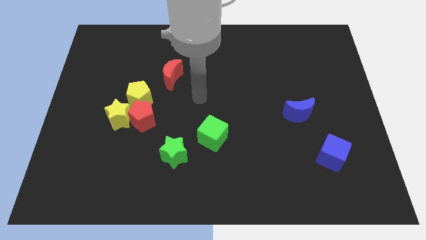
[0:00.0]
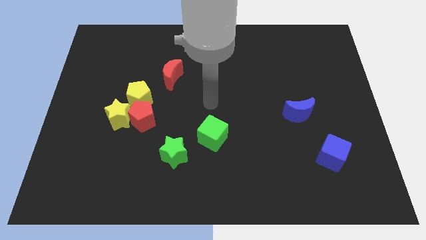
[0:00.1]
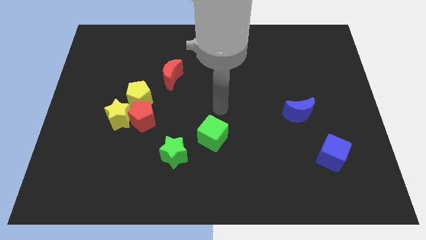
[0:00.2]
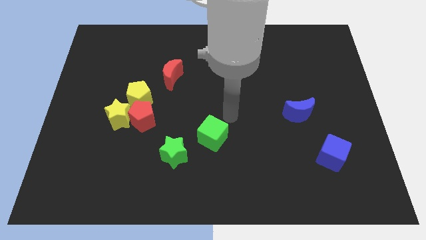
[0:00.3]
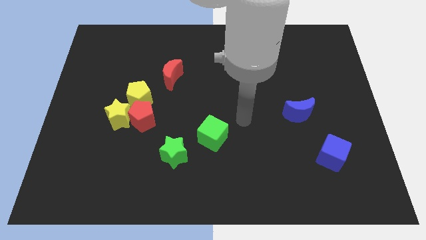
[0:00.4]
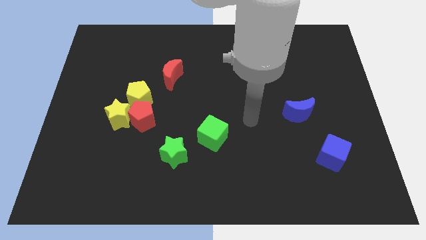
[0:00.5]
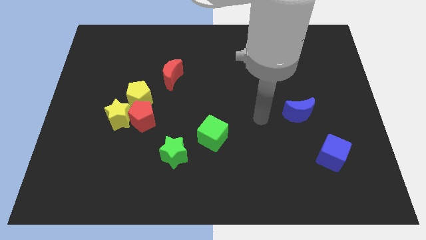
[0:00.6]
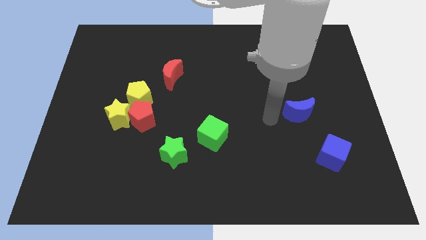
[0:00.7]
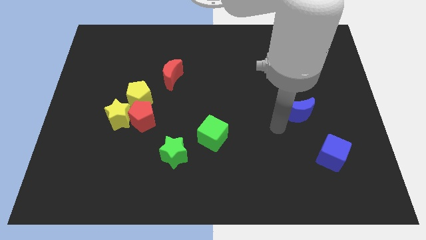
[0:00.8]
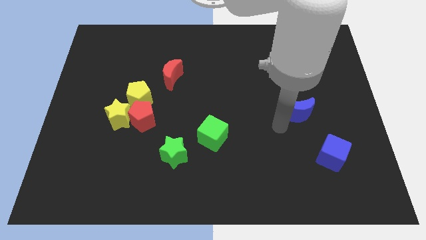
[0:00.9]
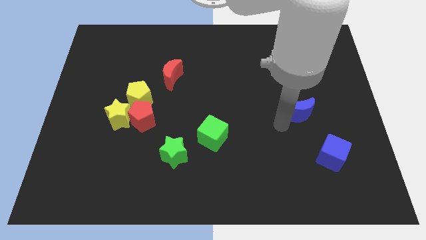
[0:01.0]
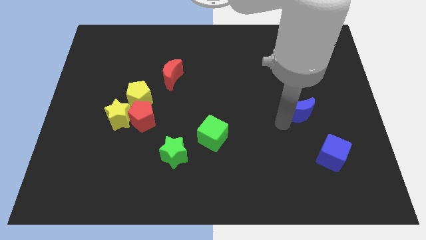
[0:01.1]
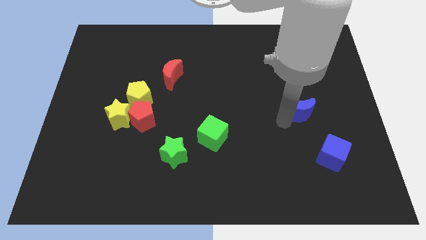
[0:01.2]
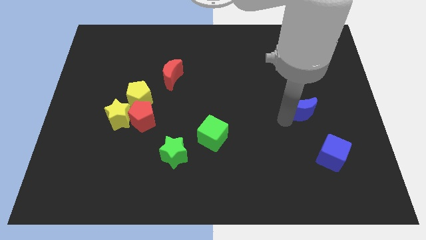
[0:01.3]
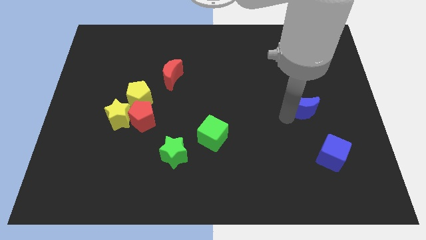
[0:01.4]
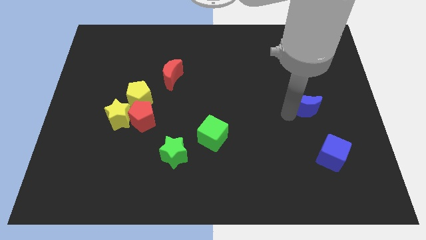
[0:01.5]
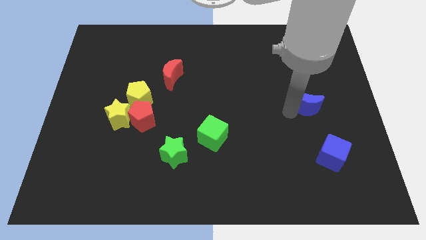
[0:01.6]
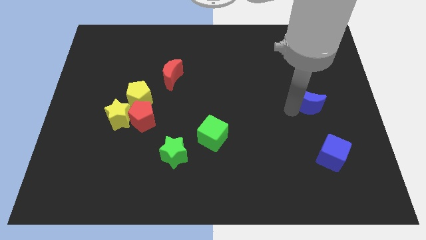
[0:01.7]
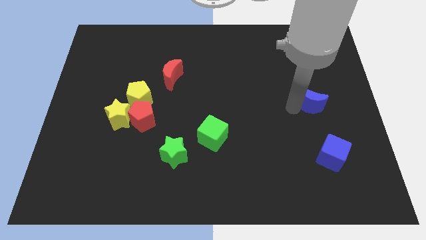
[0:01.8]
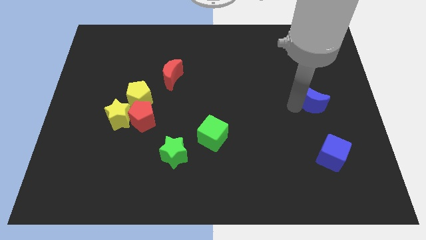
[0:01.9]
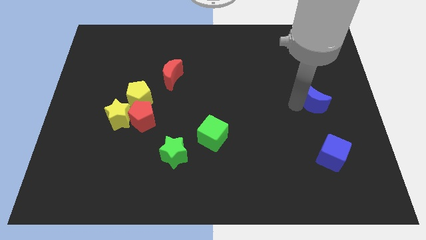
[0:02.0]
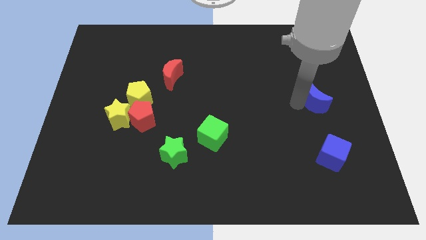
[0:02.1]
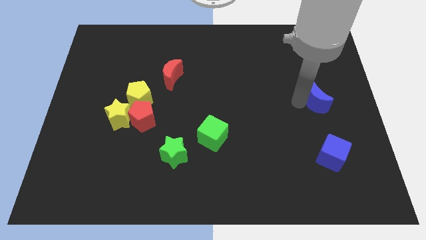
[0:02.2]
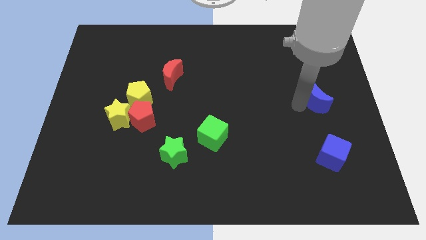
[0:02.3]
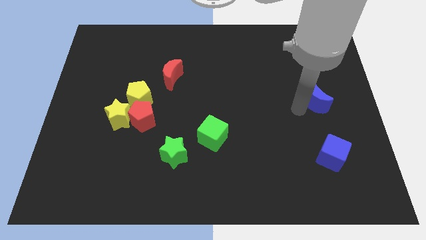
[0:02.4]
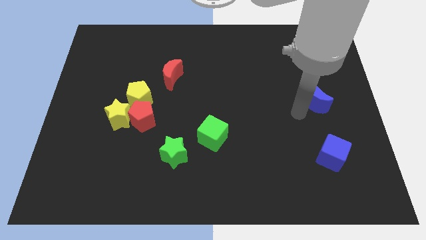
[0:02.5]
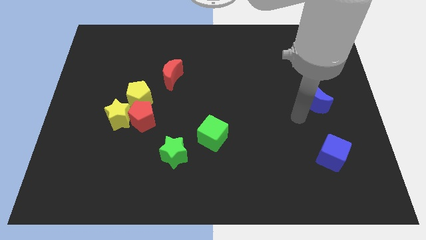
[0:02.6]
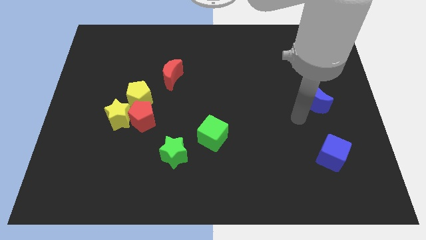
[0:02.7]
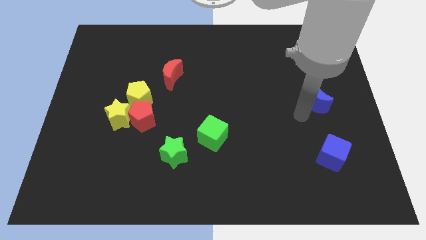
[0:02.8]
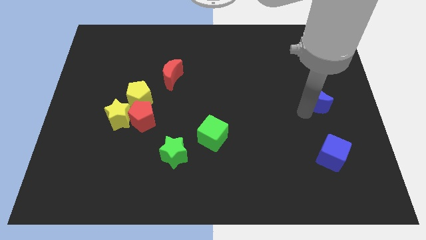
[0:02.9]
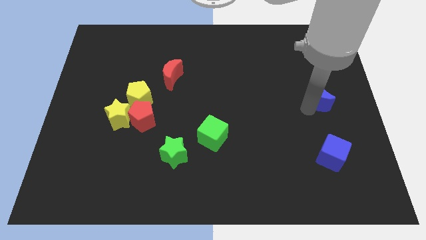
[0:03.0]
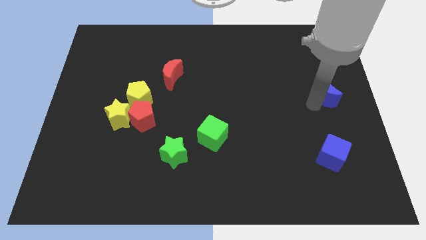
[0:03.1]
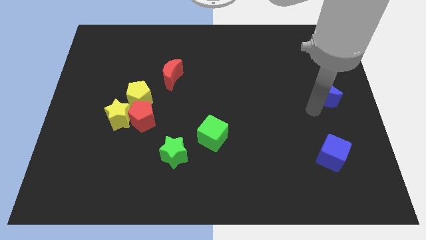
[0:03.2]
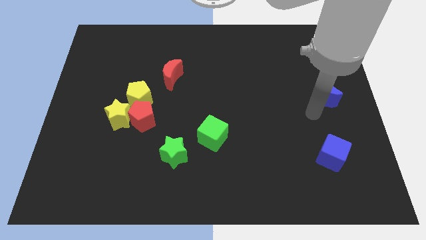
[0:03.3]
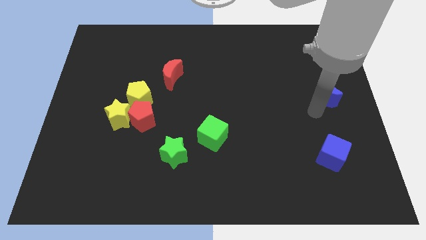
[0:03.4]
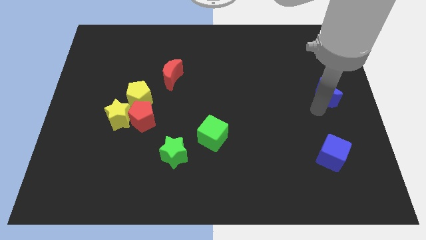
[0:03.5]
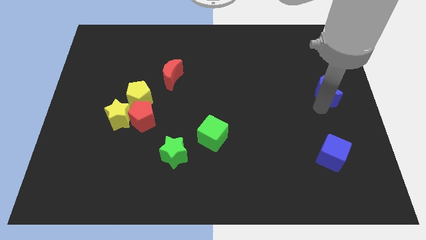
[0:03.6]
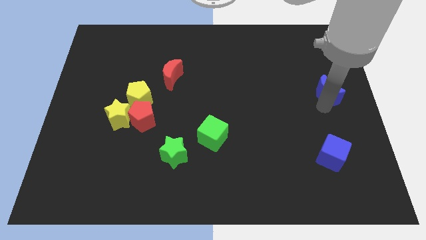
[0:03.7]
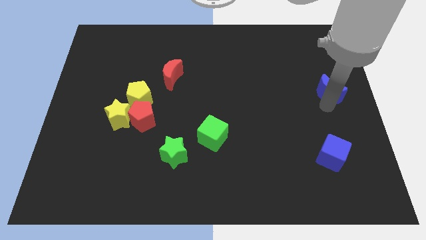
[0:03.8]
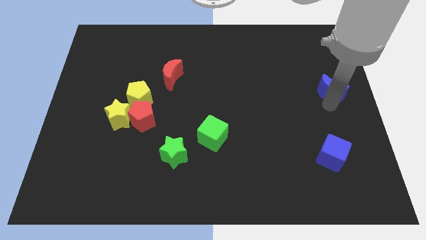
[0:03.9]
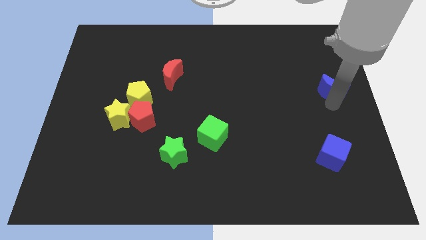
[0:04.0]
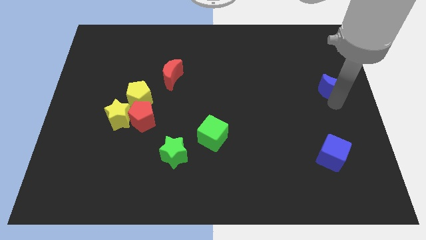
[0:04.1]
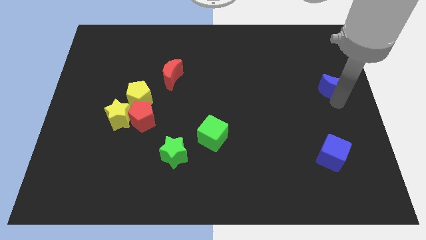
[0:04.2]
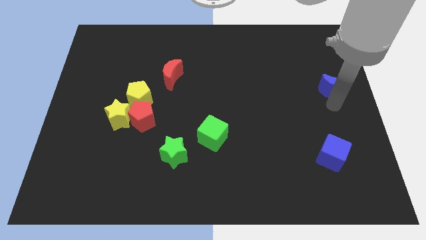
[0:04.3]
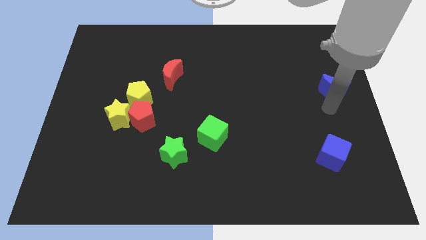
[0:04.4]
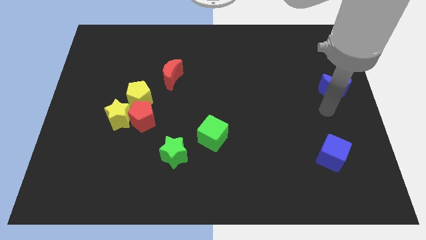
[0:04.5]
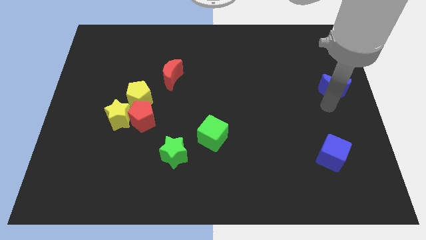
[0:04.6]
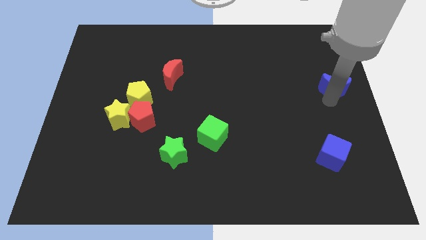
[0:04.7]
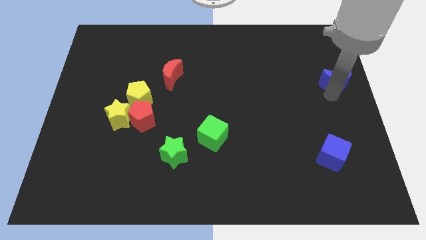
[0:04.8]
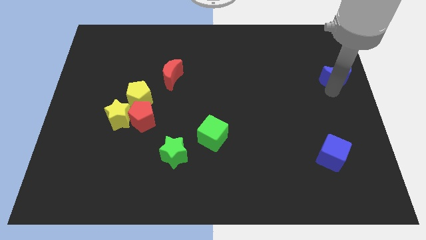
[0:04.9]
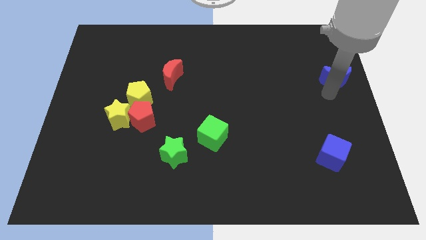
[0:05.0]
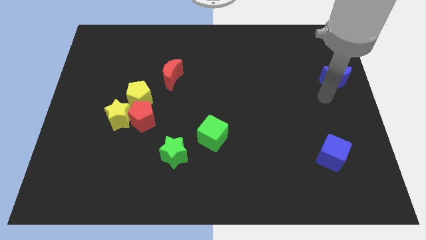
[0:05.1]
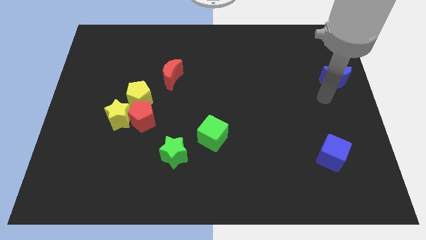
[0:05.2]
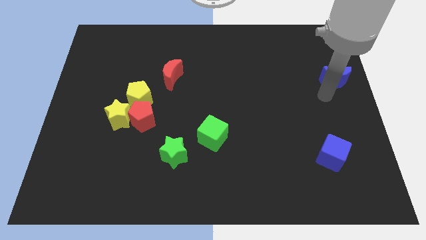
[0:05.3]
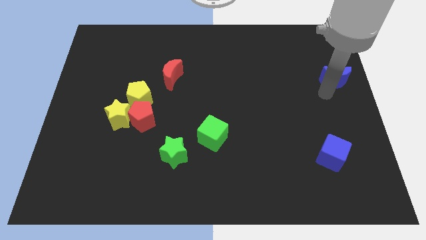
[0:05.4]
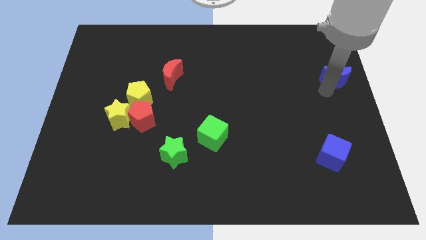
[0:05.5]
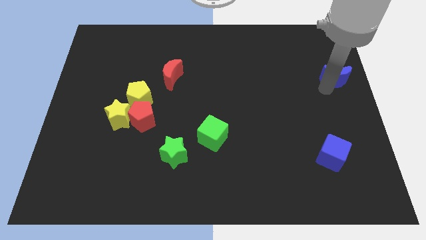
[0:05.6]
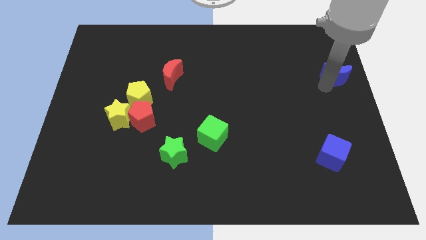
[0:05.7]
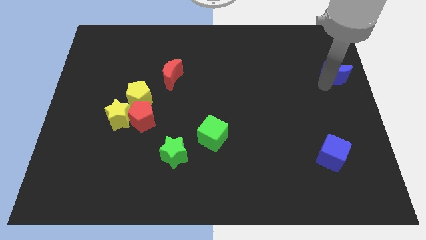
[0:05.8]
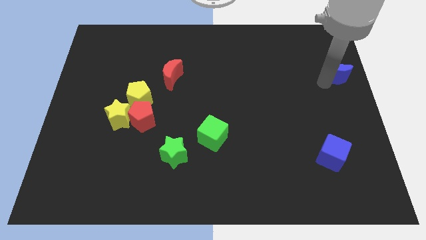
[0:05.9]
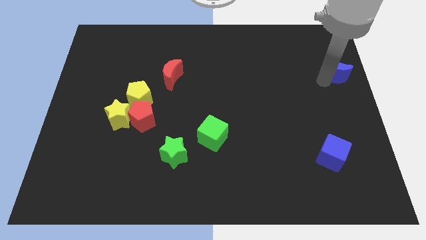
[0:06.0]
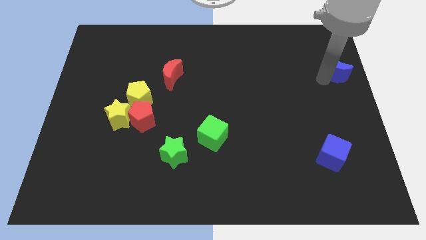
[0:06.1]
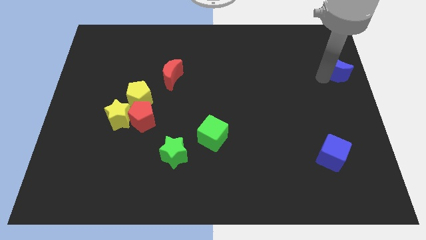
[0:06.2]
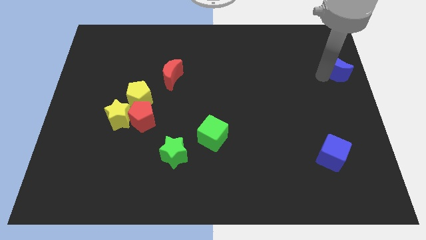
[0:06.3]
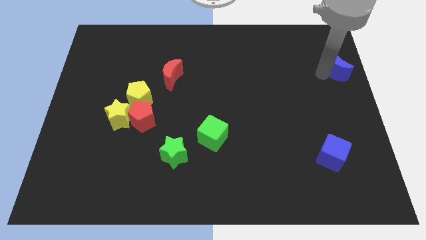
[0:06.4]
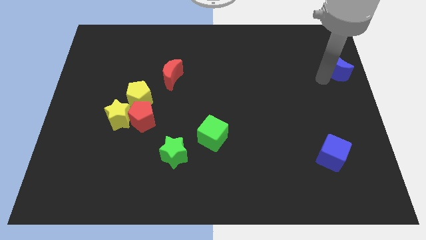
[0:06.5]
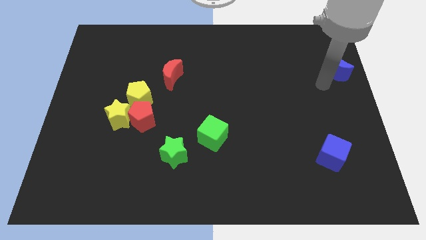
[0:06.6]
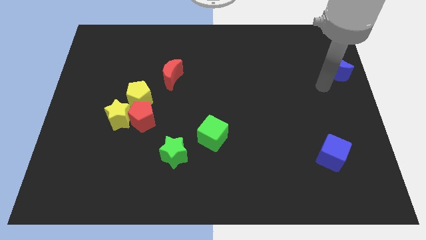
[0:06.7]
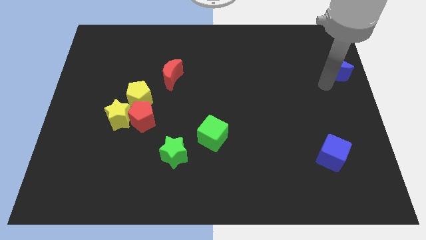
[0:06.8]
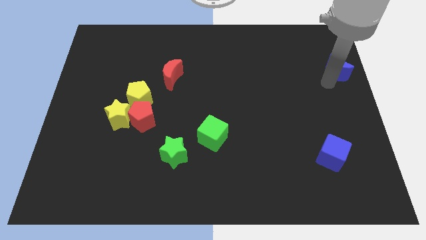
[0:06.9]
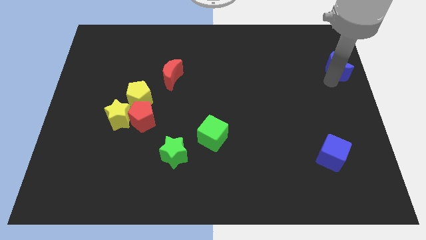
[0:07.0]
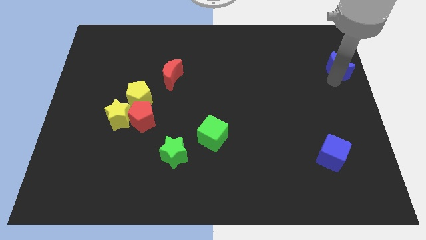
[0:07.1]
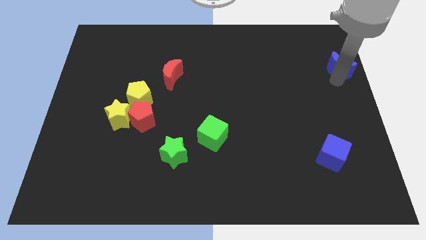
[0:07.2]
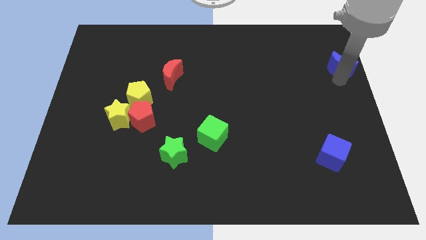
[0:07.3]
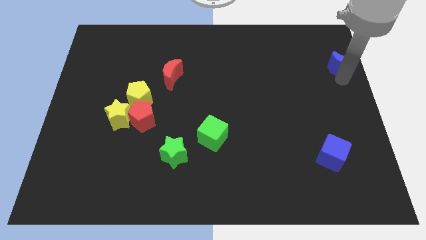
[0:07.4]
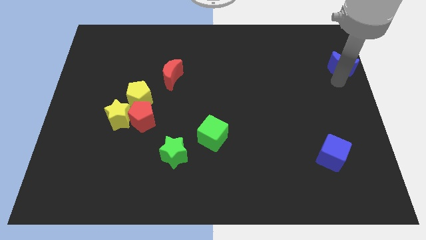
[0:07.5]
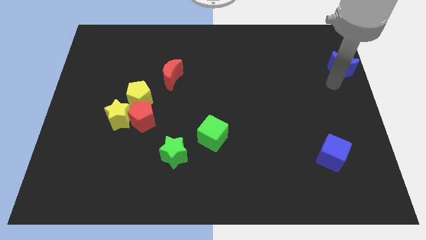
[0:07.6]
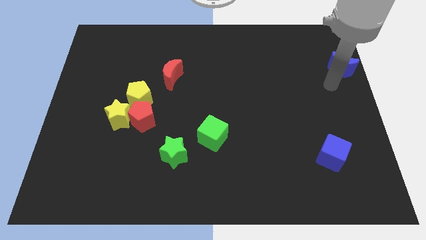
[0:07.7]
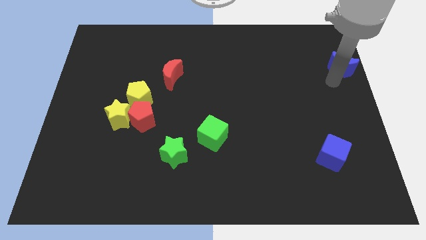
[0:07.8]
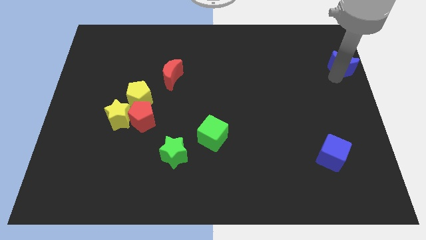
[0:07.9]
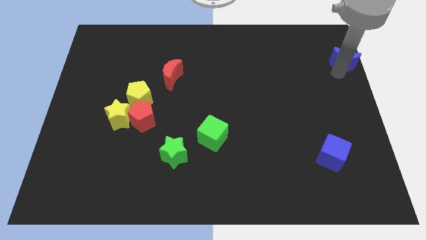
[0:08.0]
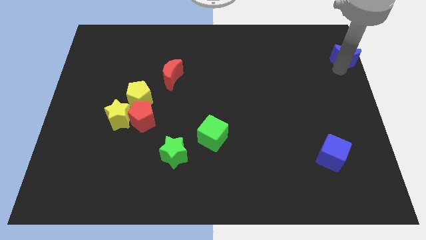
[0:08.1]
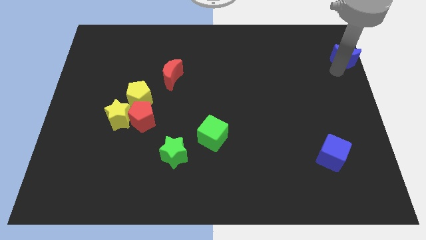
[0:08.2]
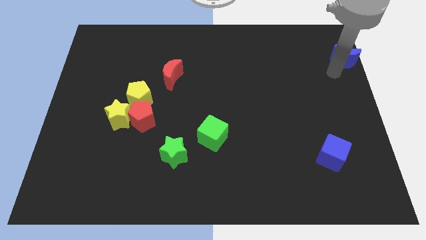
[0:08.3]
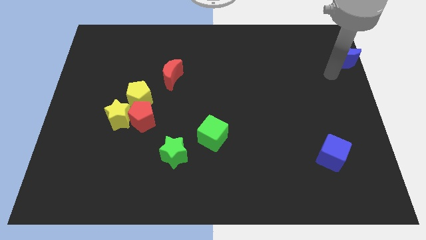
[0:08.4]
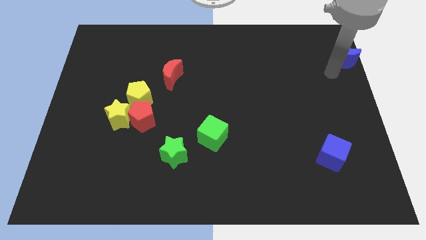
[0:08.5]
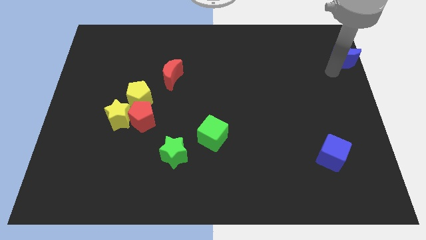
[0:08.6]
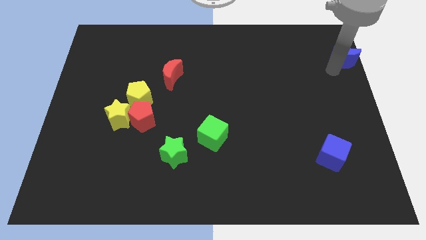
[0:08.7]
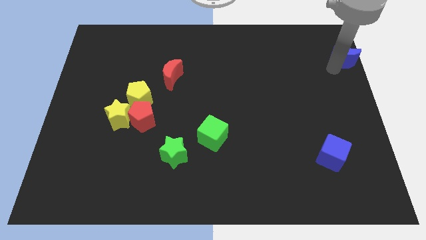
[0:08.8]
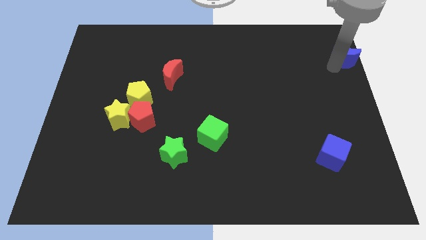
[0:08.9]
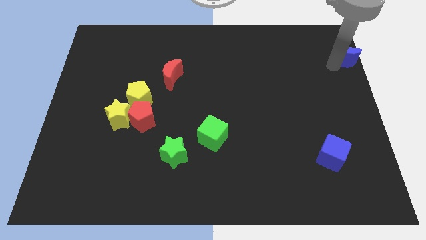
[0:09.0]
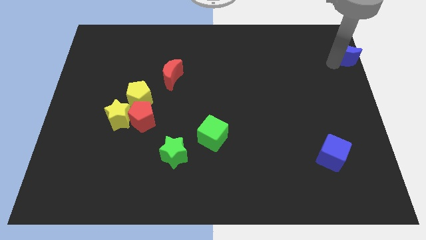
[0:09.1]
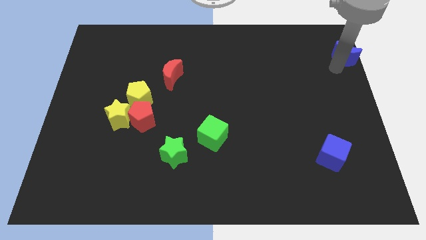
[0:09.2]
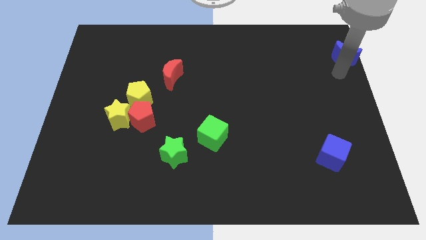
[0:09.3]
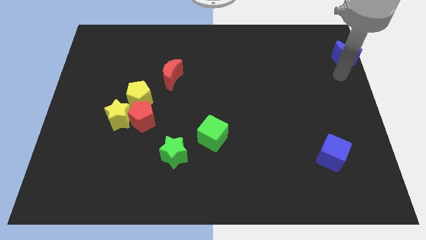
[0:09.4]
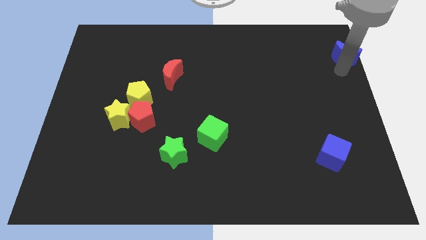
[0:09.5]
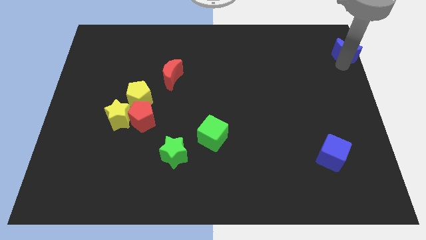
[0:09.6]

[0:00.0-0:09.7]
put the blue moon to the top right of the board
